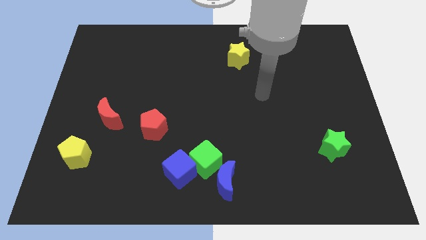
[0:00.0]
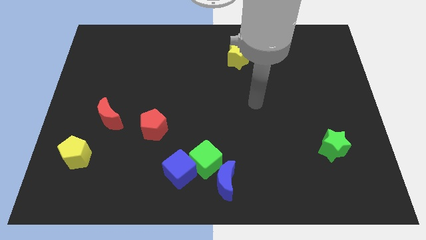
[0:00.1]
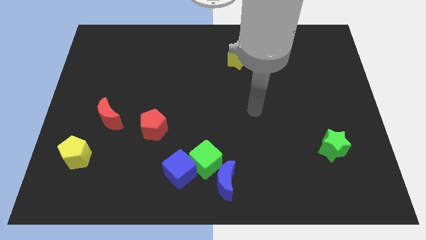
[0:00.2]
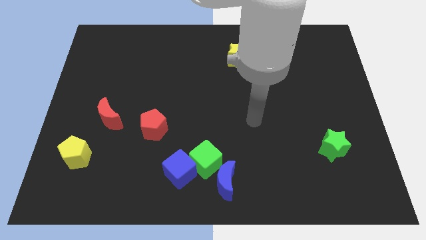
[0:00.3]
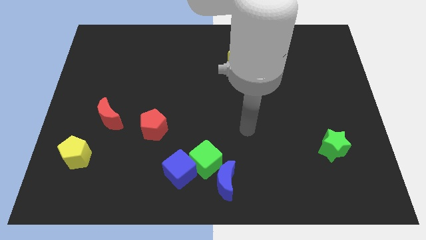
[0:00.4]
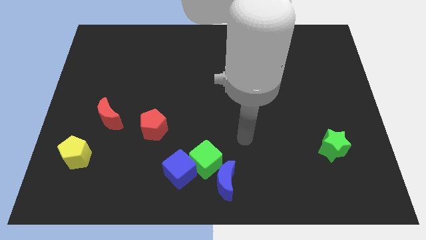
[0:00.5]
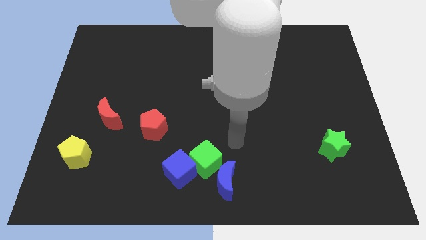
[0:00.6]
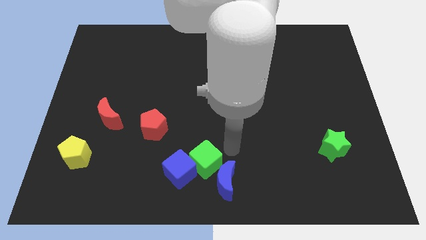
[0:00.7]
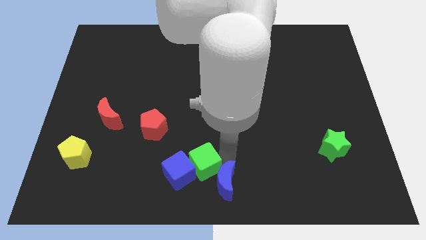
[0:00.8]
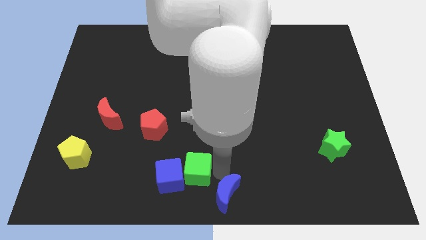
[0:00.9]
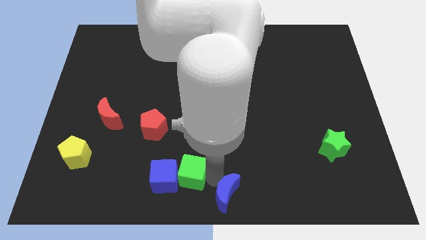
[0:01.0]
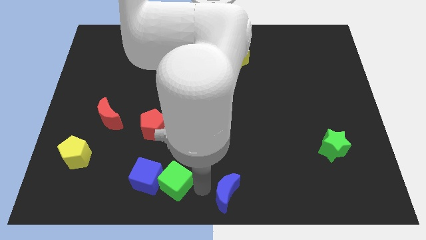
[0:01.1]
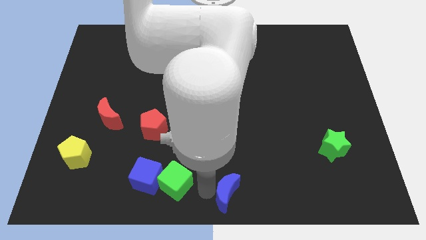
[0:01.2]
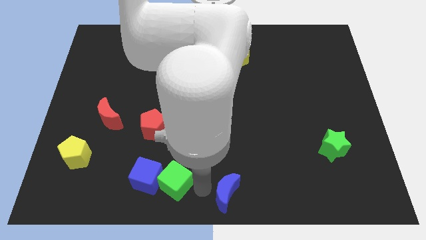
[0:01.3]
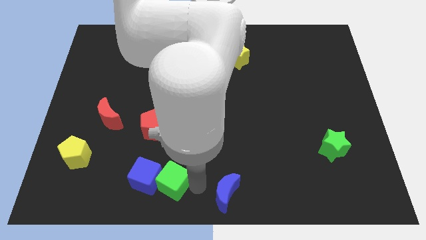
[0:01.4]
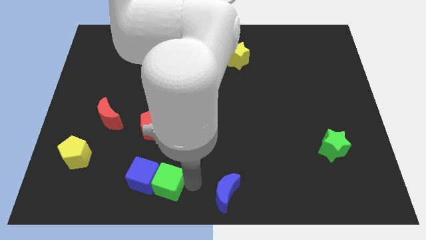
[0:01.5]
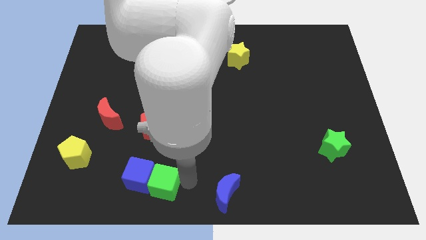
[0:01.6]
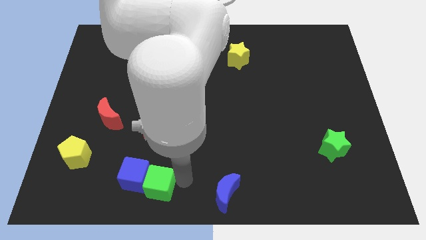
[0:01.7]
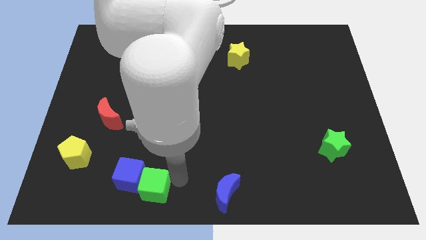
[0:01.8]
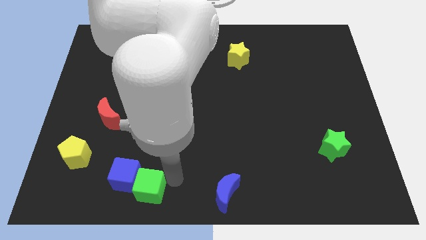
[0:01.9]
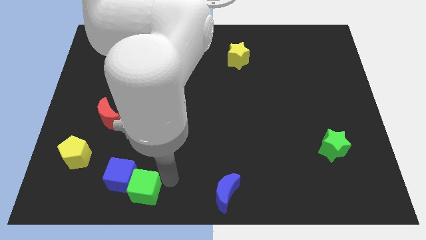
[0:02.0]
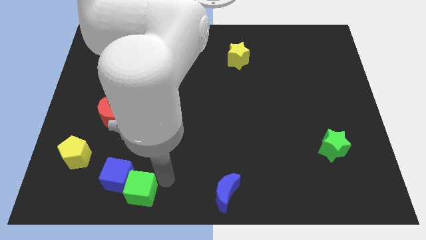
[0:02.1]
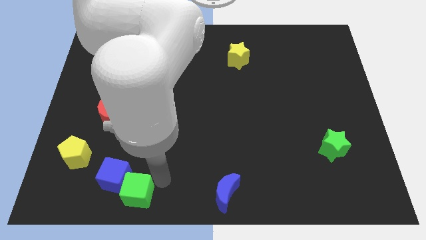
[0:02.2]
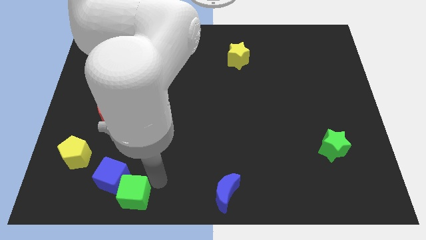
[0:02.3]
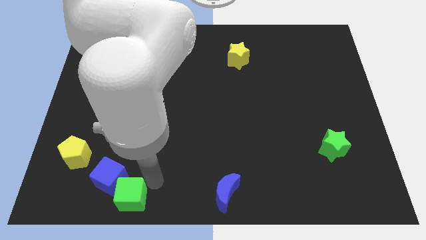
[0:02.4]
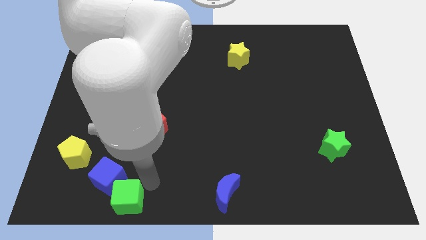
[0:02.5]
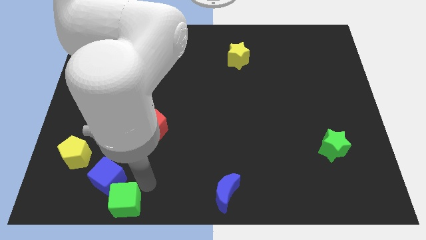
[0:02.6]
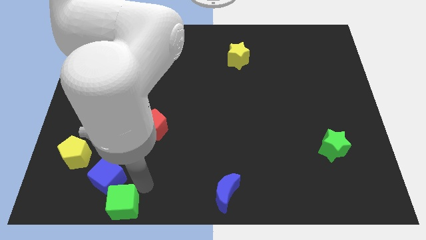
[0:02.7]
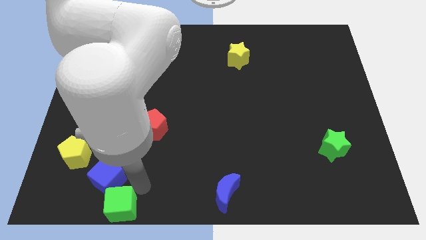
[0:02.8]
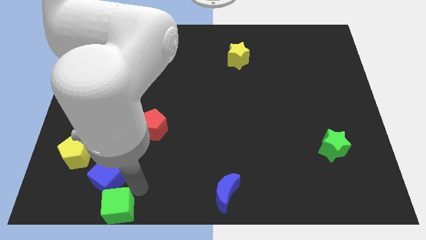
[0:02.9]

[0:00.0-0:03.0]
separate the green cube from the blue cube and blue moon

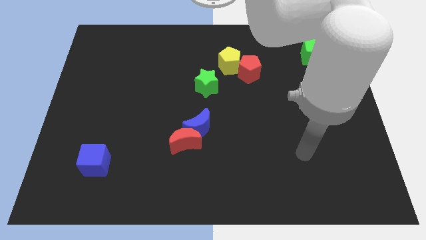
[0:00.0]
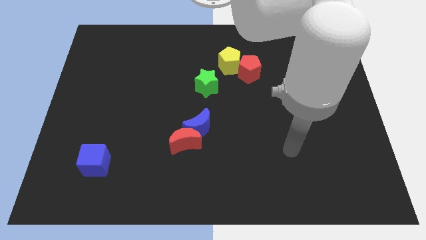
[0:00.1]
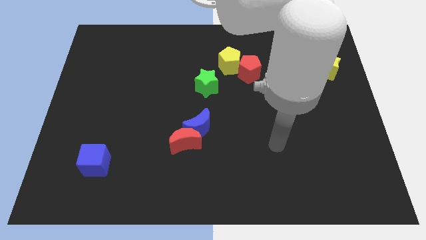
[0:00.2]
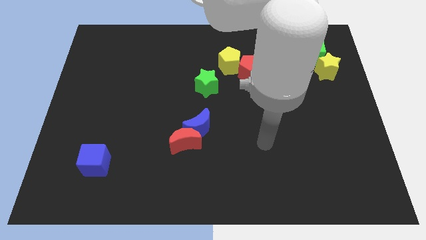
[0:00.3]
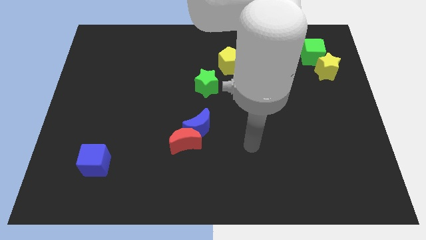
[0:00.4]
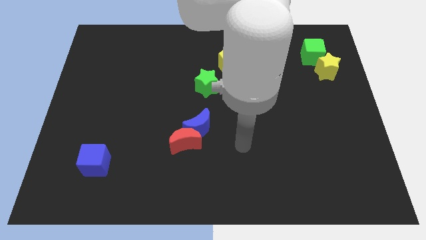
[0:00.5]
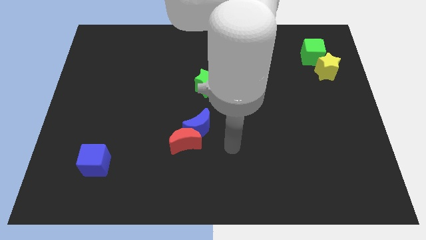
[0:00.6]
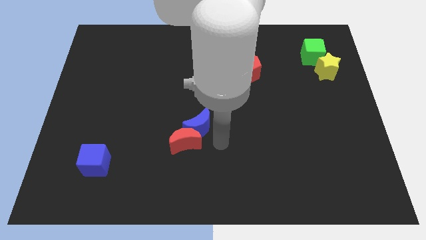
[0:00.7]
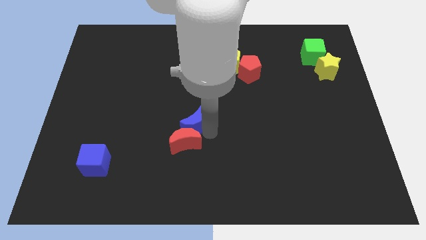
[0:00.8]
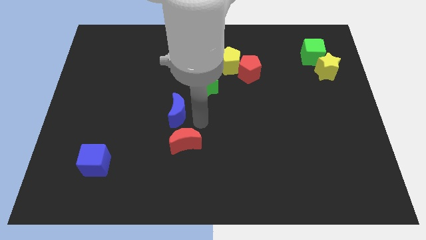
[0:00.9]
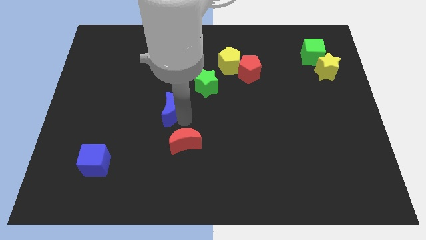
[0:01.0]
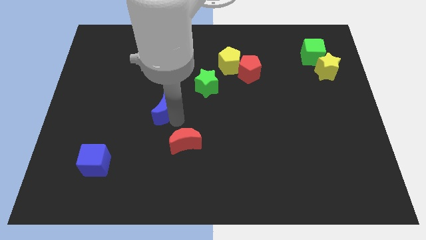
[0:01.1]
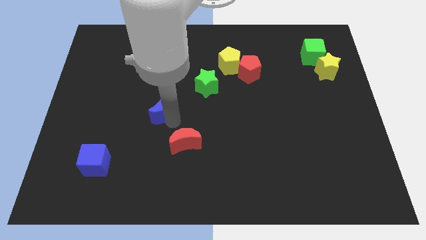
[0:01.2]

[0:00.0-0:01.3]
move the red moon away from the blue moon

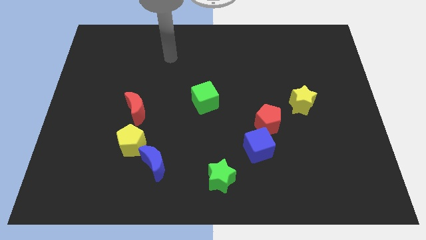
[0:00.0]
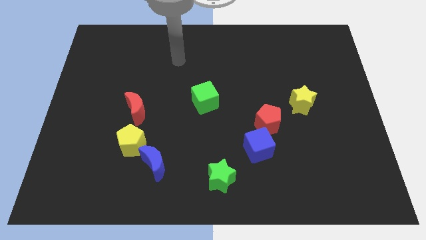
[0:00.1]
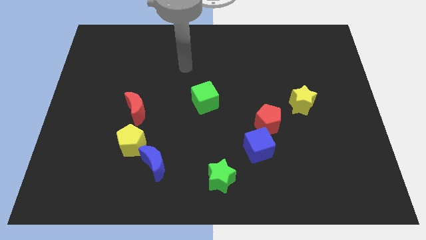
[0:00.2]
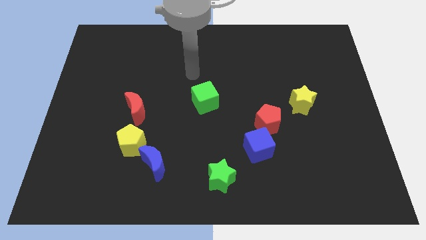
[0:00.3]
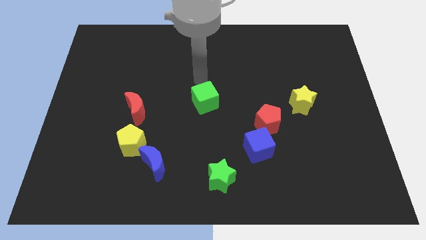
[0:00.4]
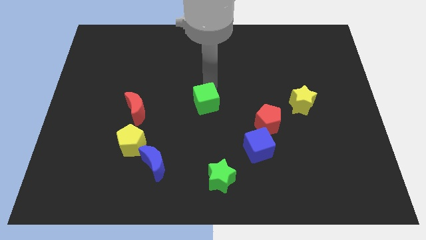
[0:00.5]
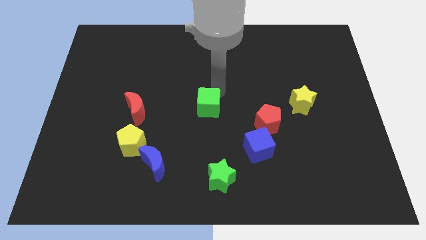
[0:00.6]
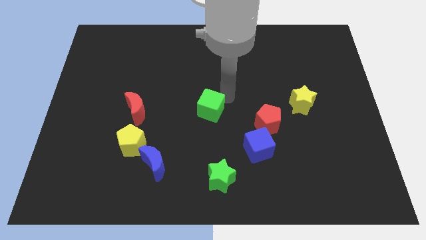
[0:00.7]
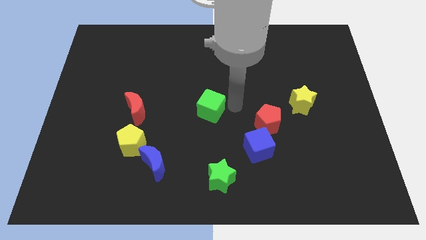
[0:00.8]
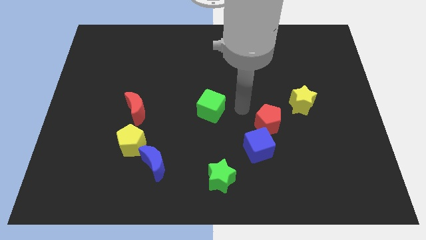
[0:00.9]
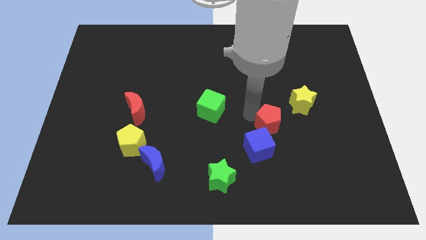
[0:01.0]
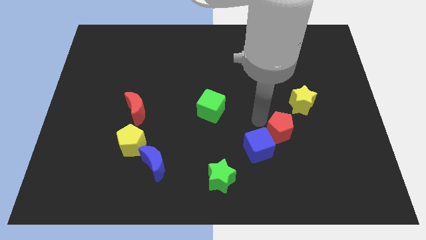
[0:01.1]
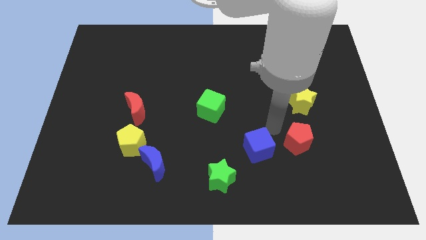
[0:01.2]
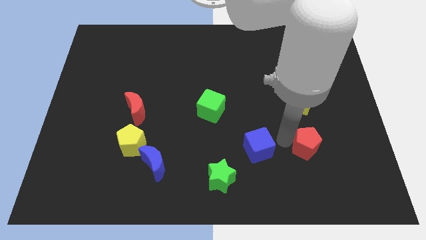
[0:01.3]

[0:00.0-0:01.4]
pull the blue cube apart from the red pentagon

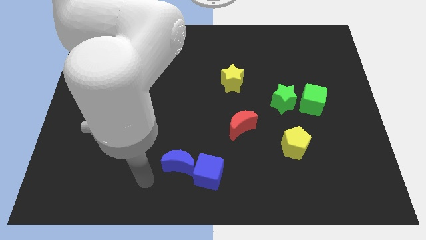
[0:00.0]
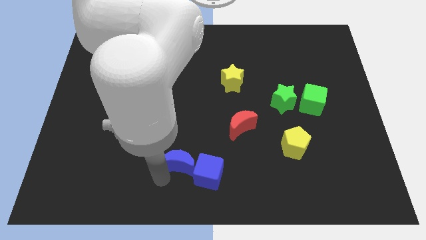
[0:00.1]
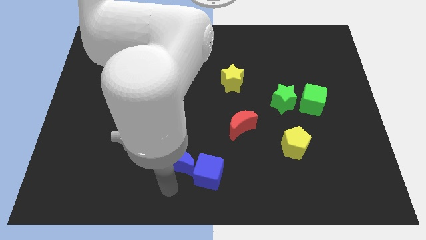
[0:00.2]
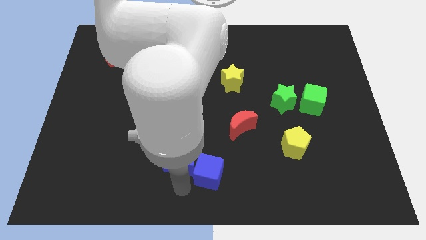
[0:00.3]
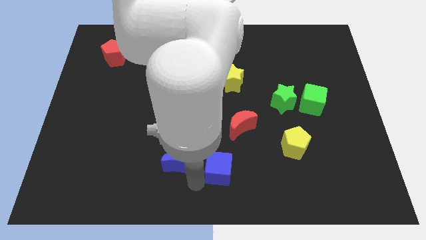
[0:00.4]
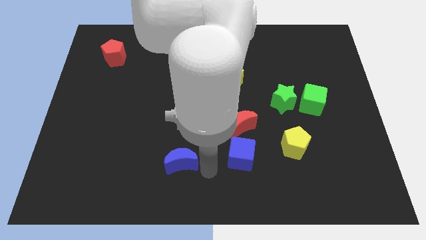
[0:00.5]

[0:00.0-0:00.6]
separate the blue moon from the blue cube

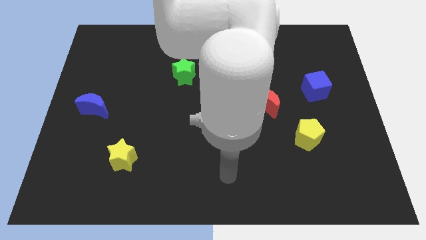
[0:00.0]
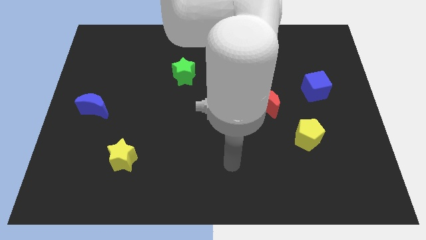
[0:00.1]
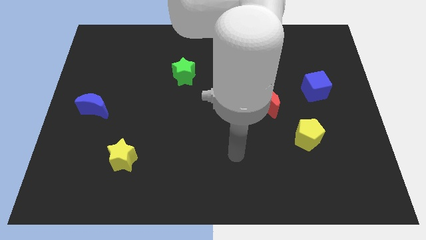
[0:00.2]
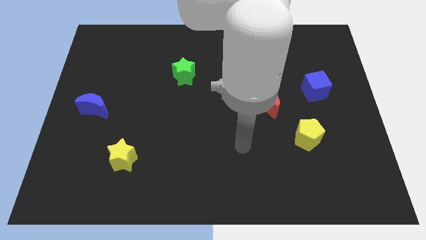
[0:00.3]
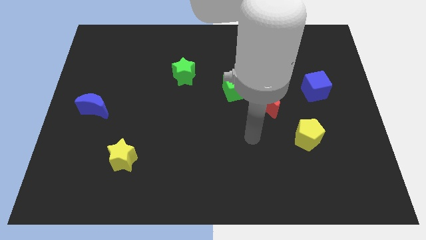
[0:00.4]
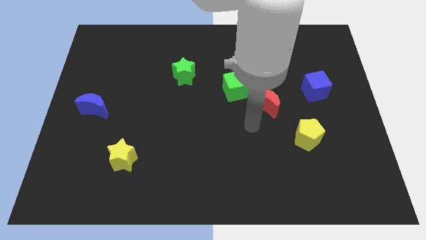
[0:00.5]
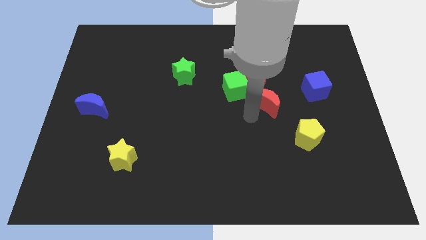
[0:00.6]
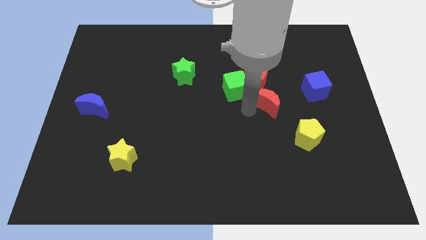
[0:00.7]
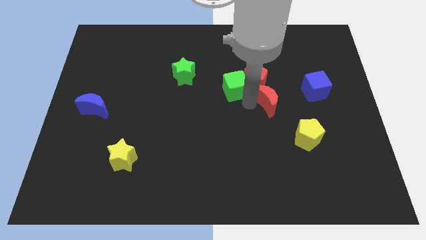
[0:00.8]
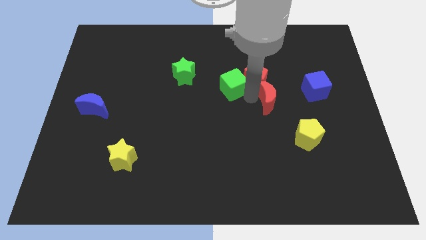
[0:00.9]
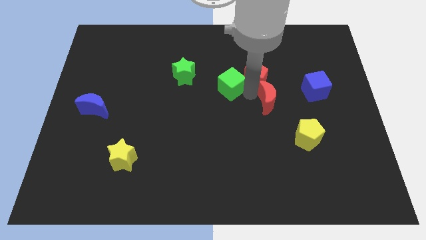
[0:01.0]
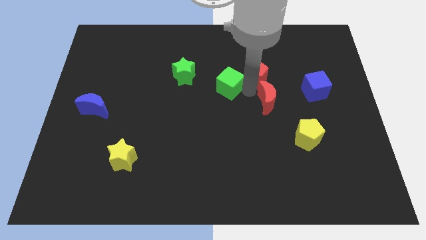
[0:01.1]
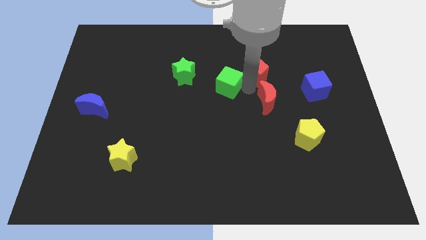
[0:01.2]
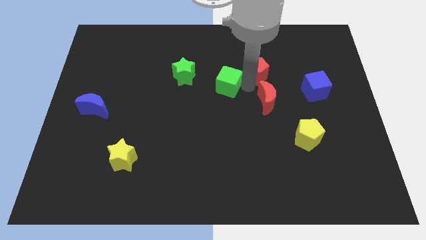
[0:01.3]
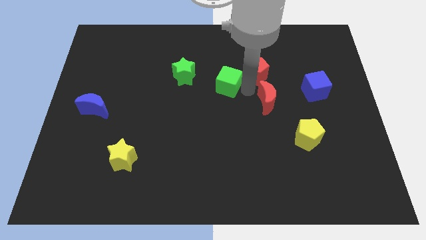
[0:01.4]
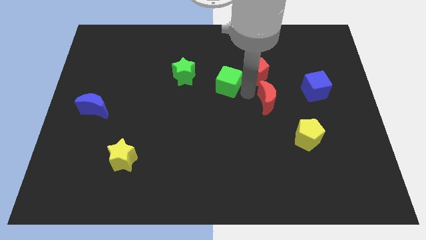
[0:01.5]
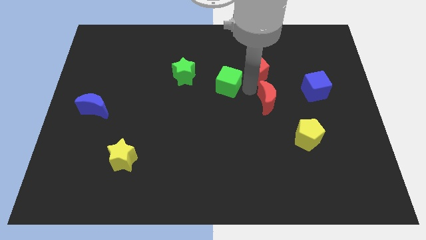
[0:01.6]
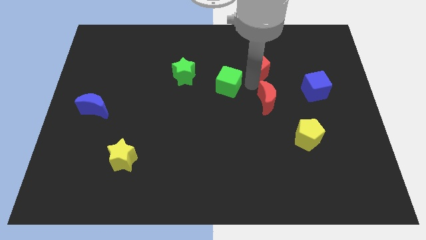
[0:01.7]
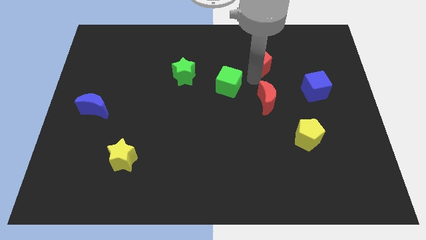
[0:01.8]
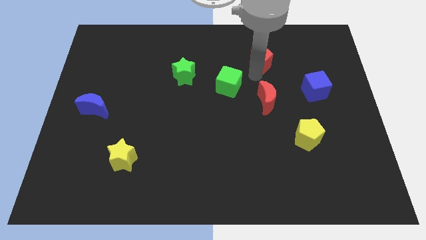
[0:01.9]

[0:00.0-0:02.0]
pull the red pentagon apart from the green cube and red moon

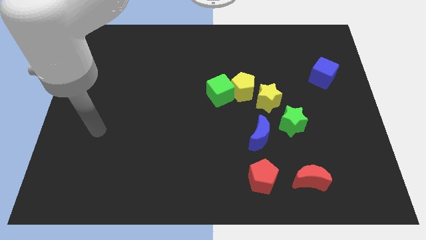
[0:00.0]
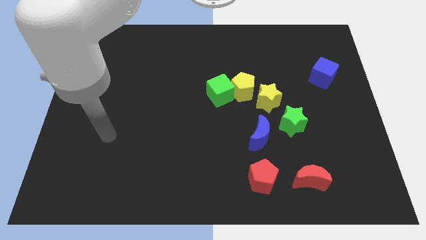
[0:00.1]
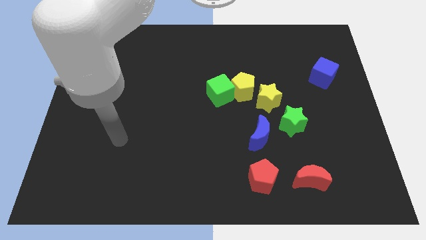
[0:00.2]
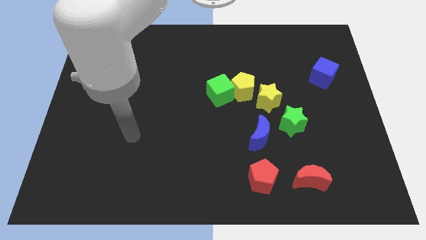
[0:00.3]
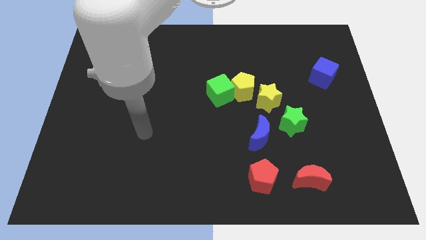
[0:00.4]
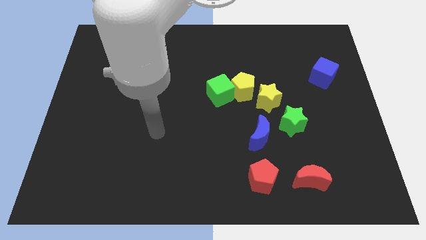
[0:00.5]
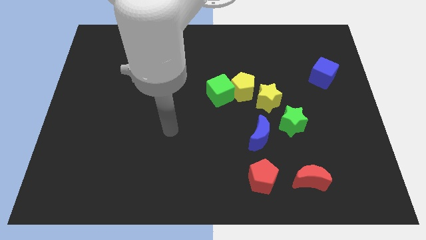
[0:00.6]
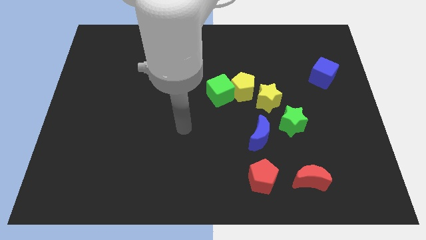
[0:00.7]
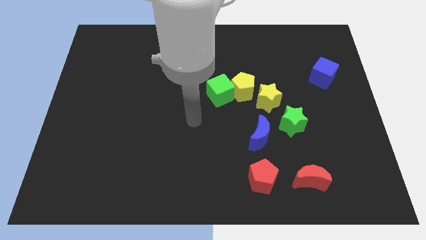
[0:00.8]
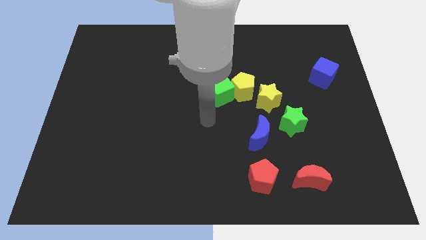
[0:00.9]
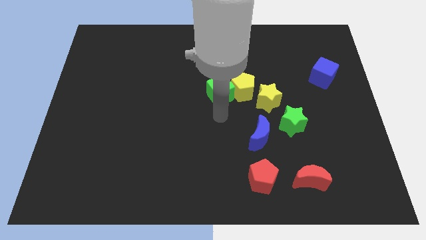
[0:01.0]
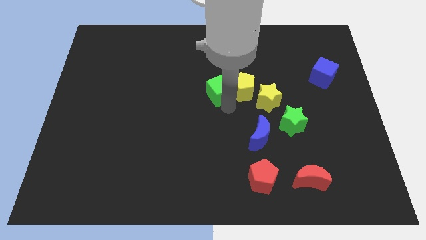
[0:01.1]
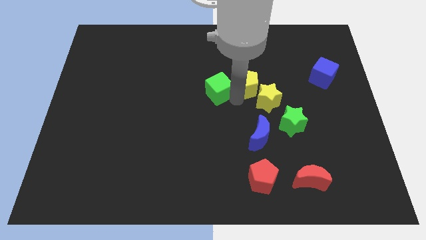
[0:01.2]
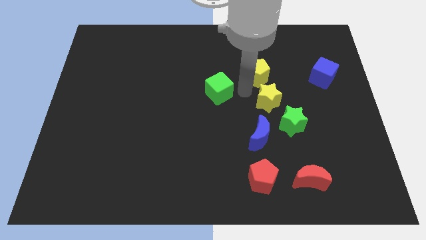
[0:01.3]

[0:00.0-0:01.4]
pull the green cube apart from the yellow pentagon
